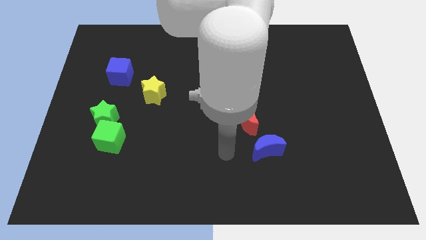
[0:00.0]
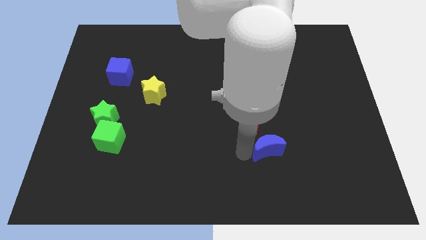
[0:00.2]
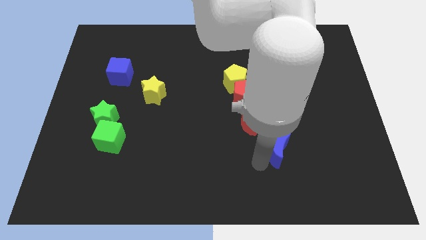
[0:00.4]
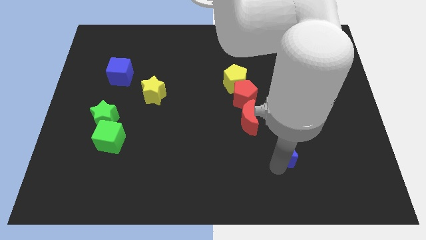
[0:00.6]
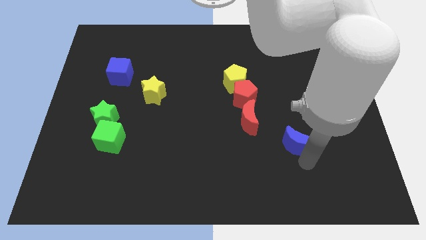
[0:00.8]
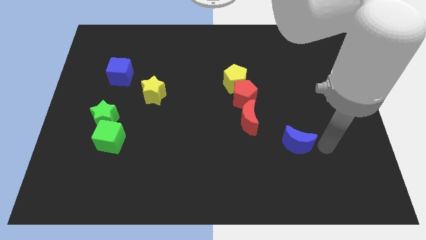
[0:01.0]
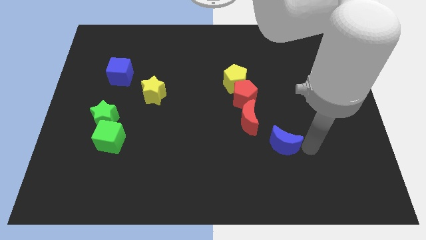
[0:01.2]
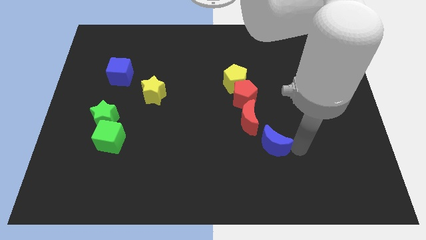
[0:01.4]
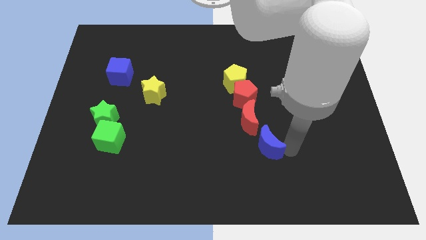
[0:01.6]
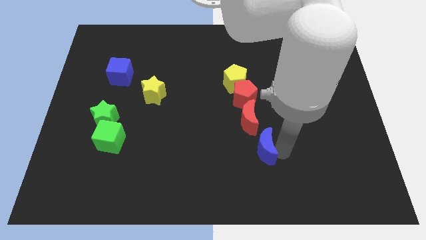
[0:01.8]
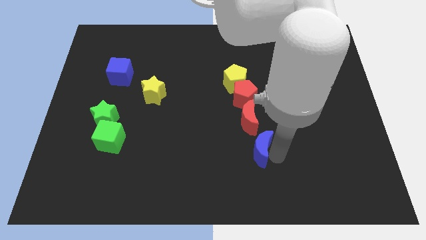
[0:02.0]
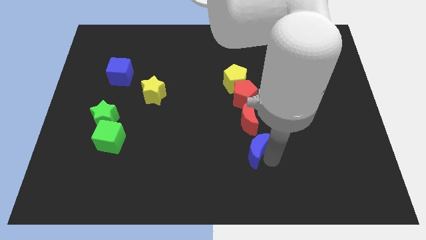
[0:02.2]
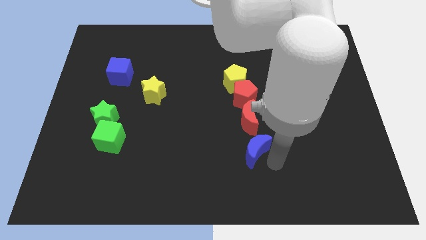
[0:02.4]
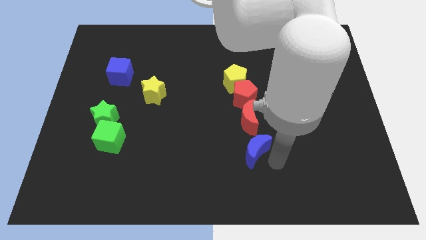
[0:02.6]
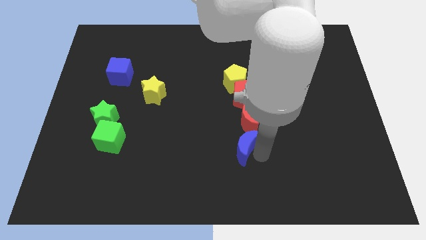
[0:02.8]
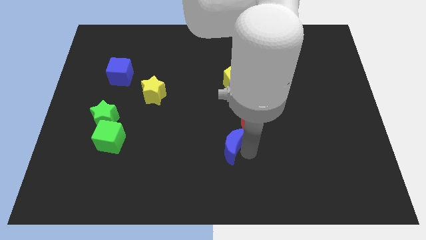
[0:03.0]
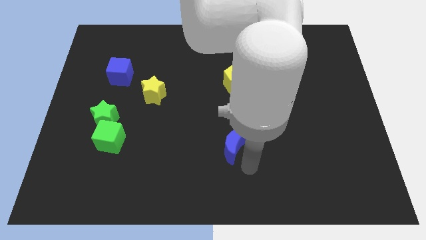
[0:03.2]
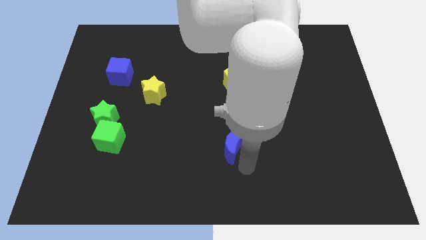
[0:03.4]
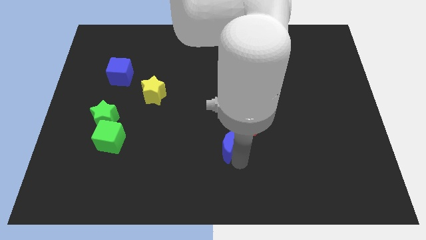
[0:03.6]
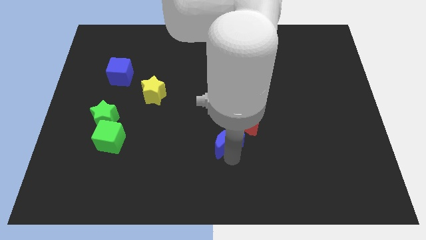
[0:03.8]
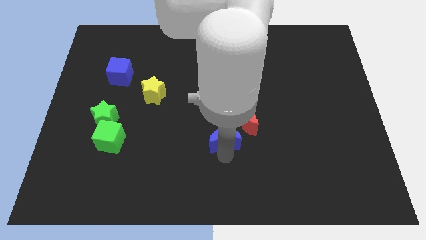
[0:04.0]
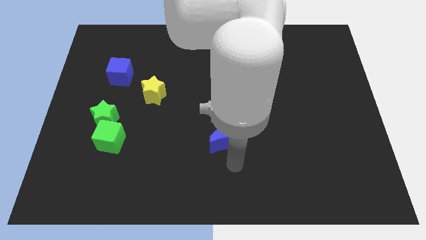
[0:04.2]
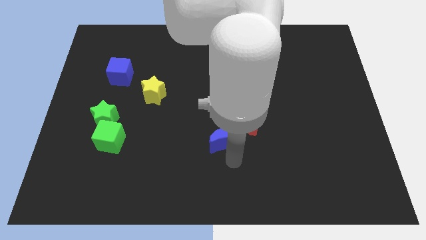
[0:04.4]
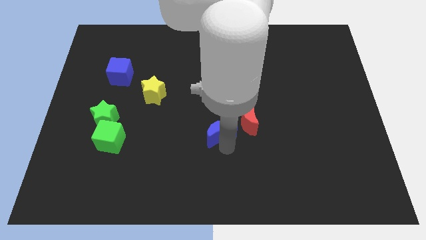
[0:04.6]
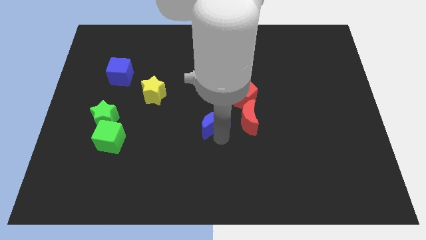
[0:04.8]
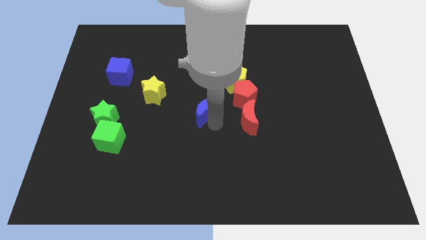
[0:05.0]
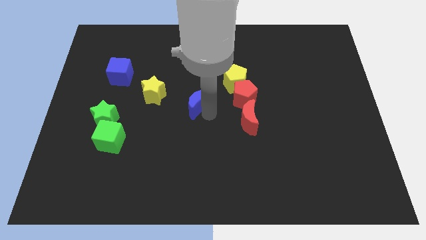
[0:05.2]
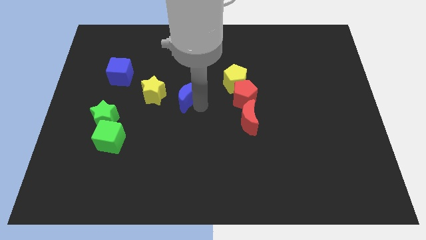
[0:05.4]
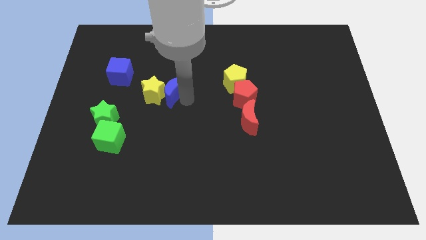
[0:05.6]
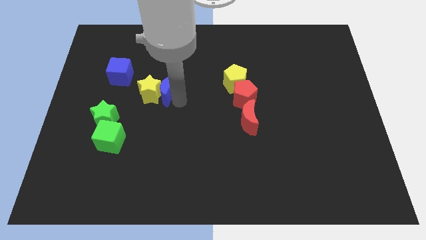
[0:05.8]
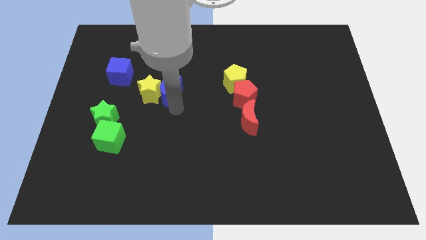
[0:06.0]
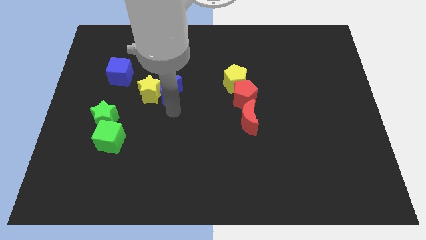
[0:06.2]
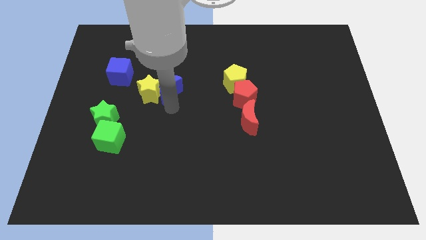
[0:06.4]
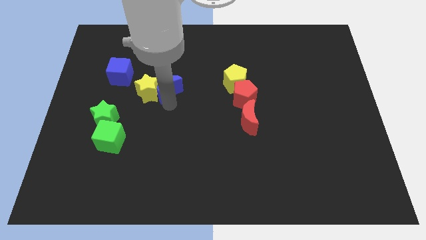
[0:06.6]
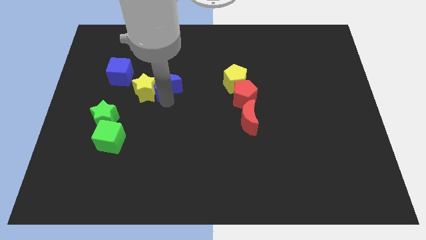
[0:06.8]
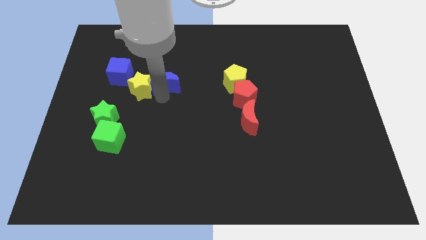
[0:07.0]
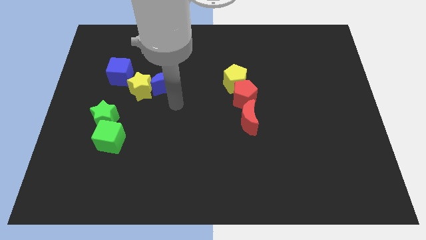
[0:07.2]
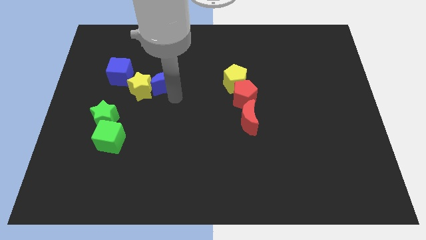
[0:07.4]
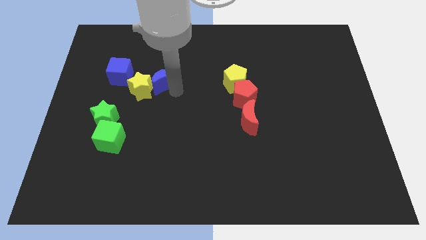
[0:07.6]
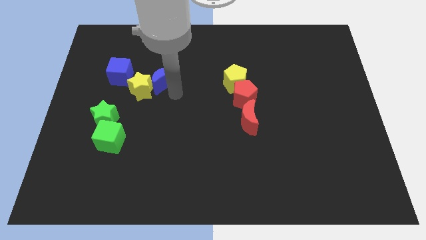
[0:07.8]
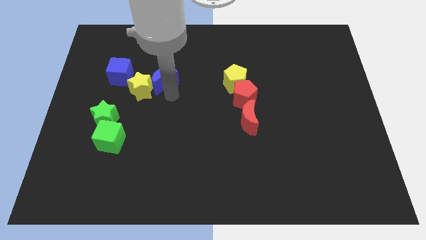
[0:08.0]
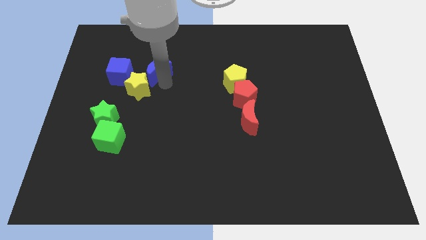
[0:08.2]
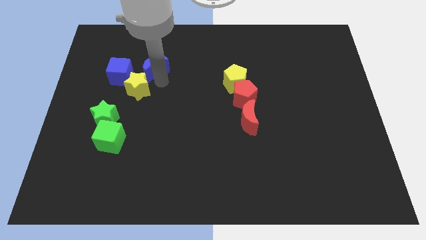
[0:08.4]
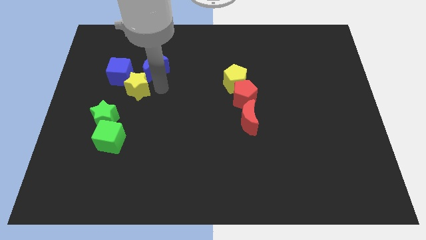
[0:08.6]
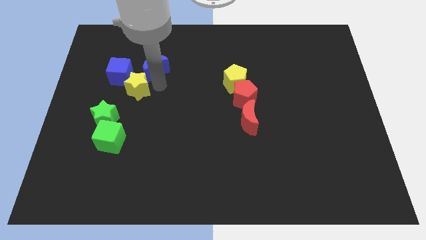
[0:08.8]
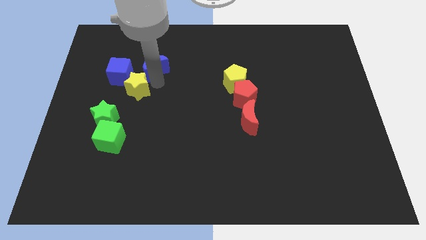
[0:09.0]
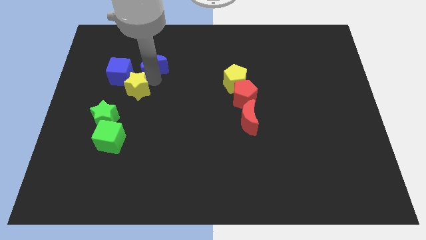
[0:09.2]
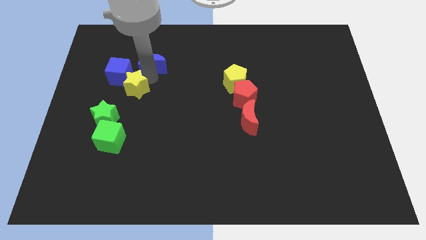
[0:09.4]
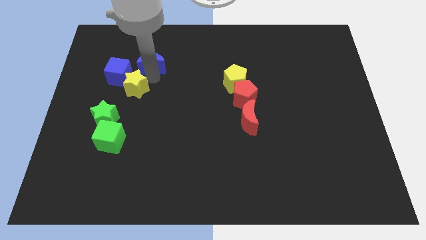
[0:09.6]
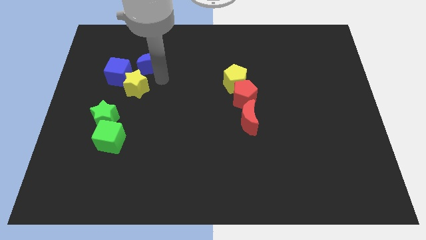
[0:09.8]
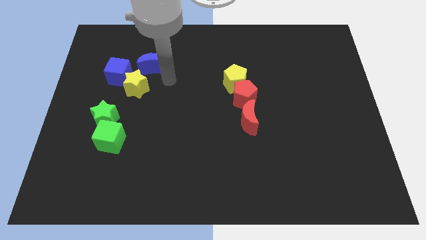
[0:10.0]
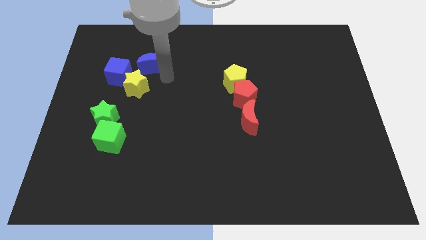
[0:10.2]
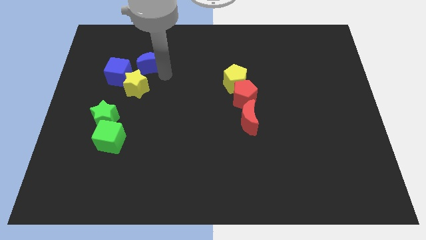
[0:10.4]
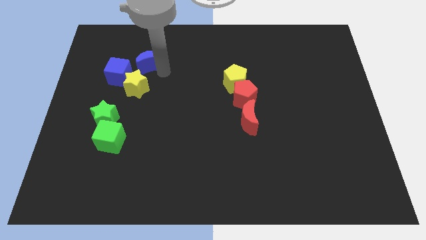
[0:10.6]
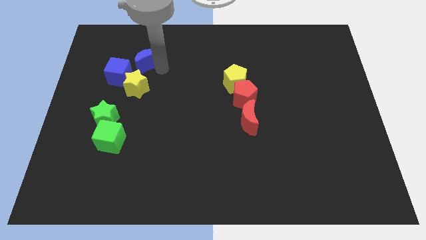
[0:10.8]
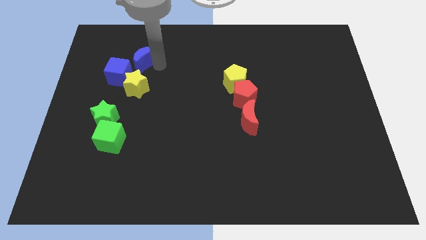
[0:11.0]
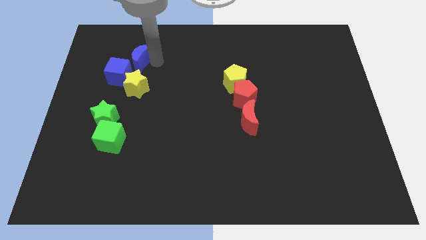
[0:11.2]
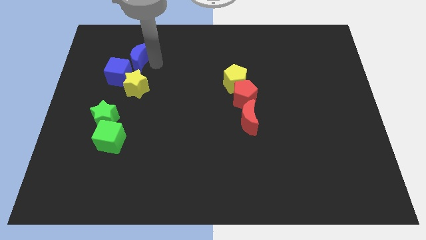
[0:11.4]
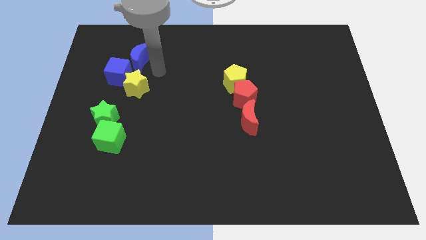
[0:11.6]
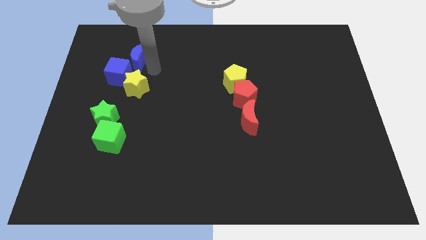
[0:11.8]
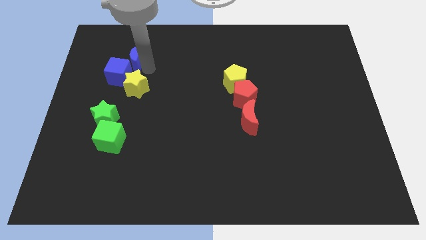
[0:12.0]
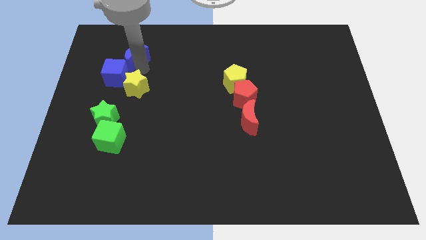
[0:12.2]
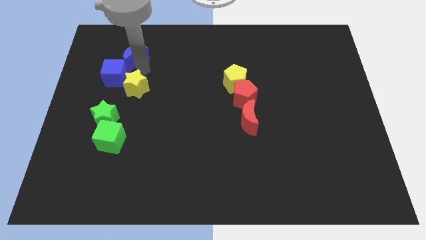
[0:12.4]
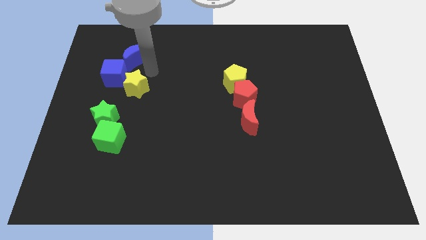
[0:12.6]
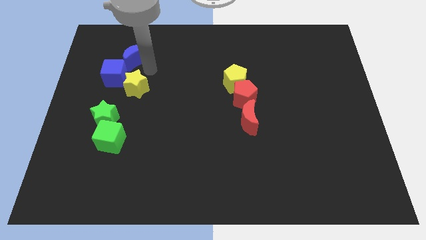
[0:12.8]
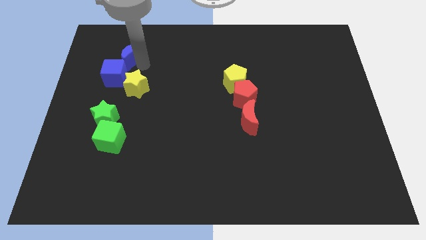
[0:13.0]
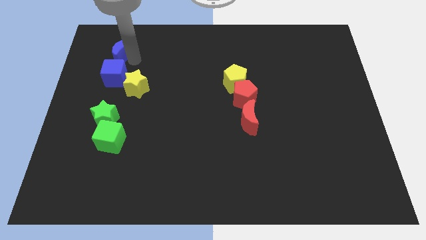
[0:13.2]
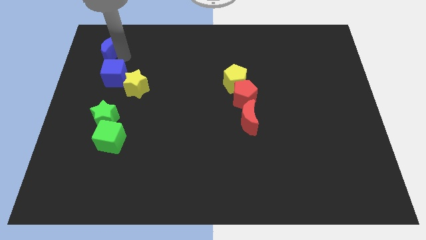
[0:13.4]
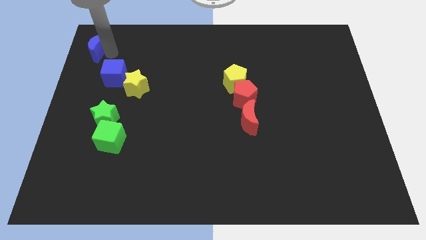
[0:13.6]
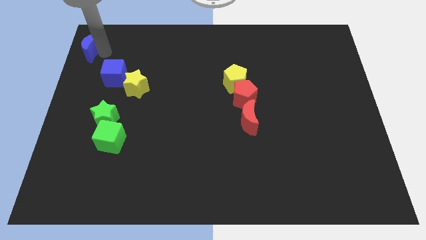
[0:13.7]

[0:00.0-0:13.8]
move the blue moon to the top left of the board

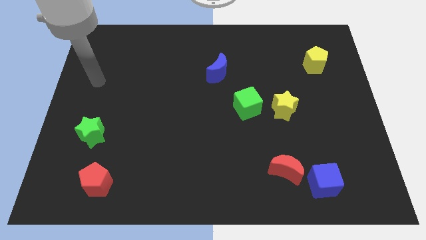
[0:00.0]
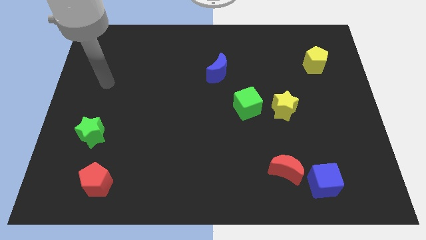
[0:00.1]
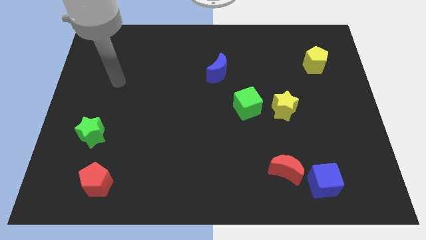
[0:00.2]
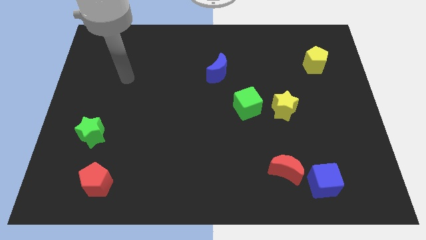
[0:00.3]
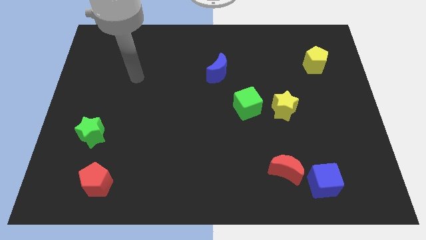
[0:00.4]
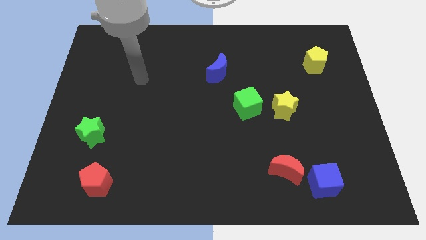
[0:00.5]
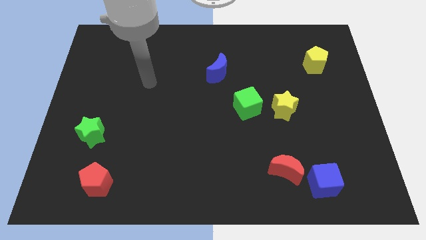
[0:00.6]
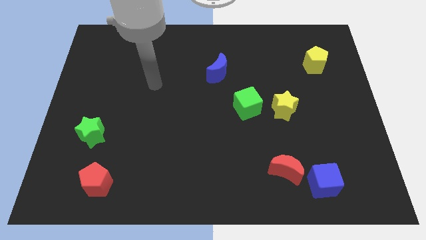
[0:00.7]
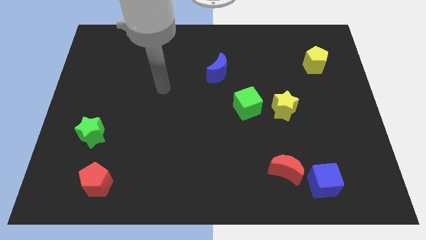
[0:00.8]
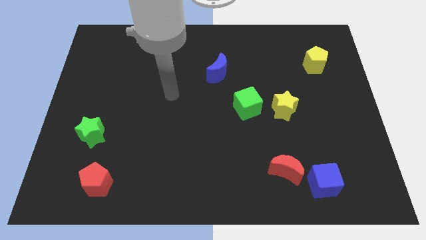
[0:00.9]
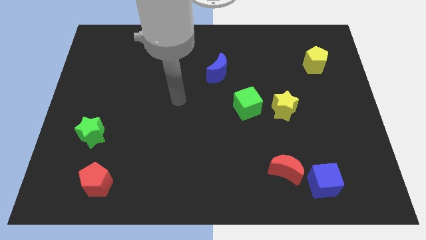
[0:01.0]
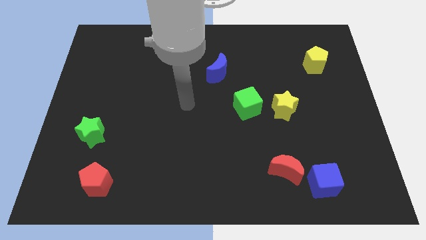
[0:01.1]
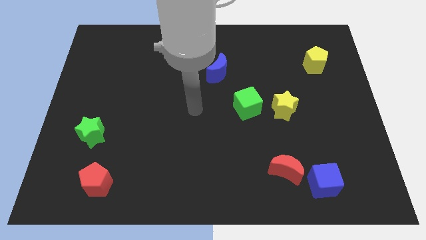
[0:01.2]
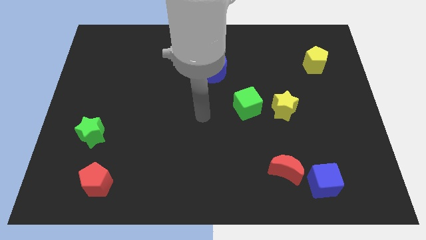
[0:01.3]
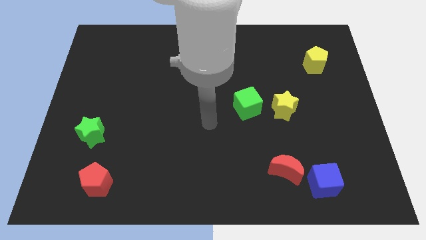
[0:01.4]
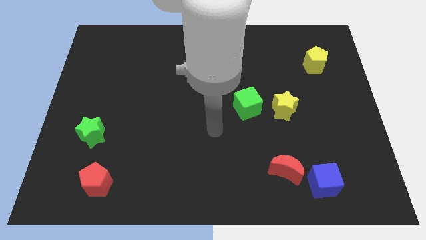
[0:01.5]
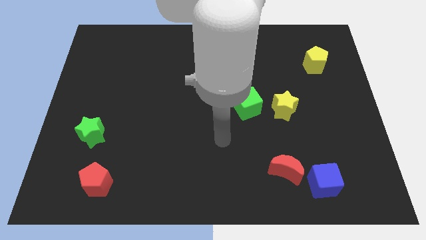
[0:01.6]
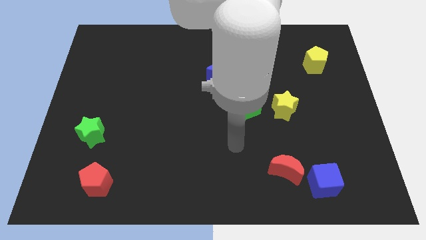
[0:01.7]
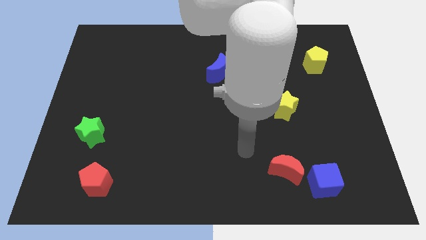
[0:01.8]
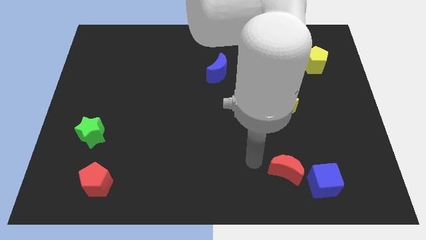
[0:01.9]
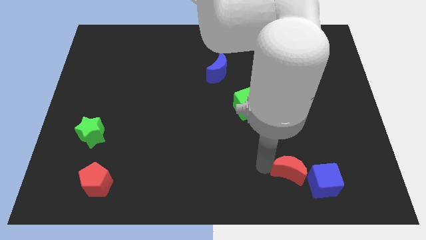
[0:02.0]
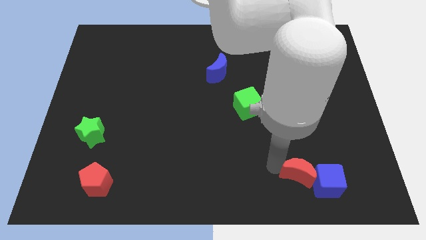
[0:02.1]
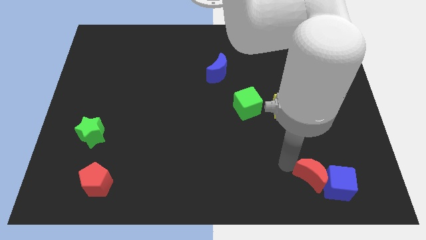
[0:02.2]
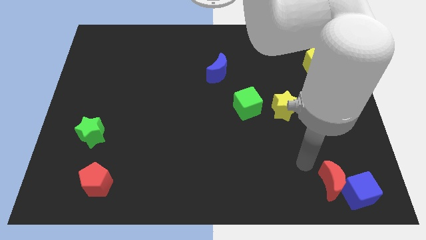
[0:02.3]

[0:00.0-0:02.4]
put the blue cube to the lower right corner
